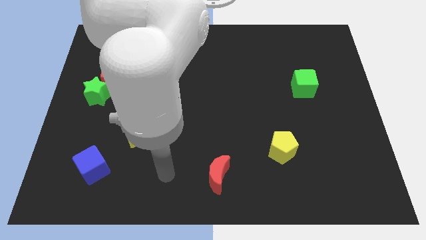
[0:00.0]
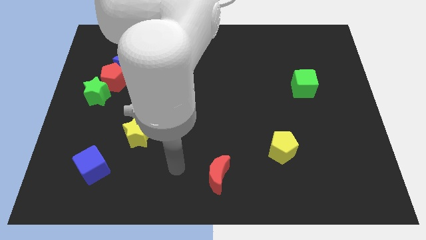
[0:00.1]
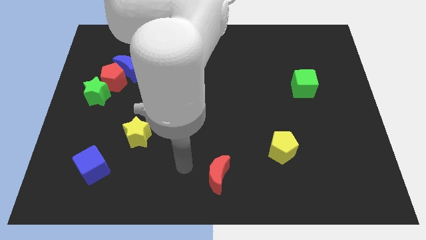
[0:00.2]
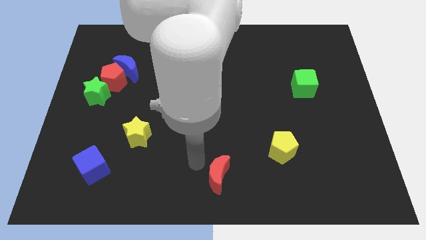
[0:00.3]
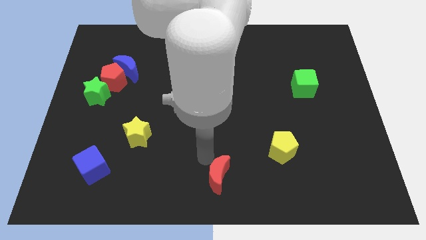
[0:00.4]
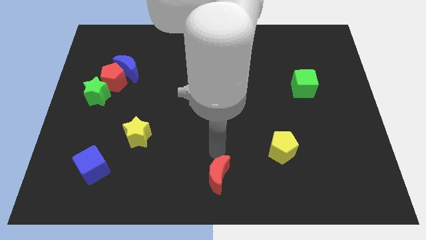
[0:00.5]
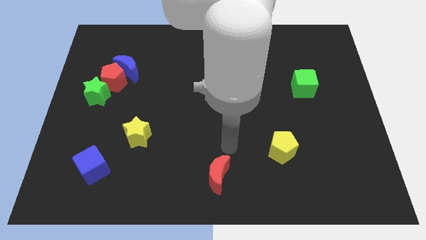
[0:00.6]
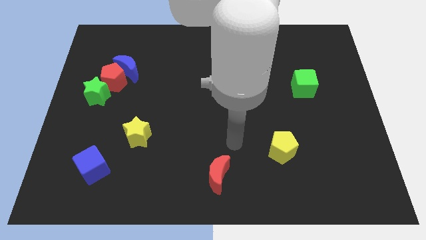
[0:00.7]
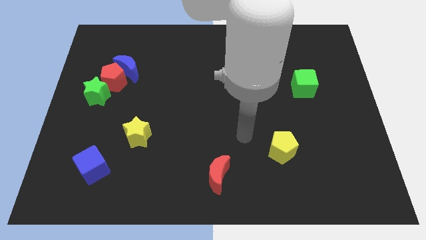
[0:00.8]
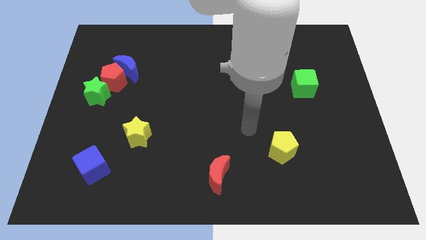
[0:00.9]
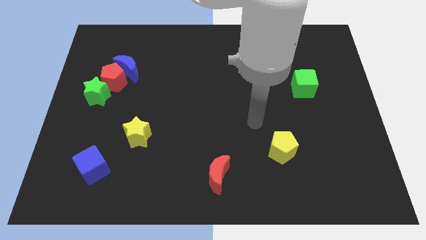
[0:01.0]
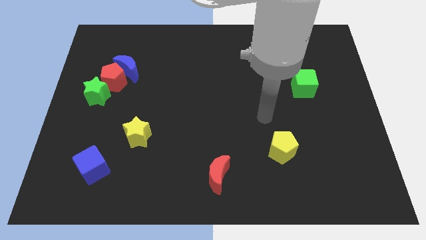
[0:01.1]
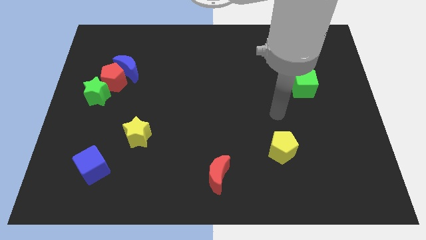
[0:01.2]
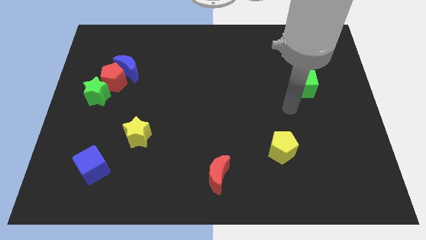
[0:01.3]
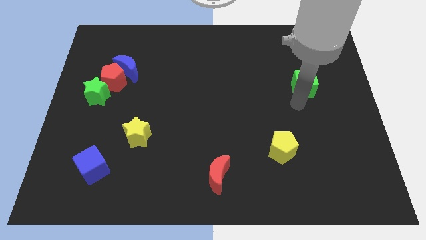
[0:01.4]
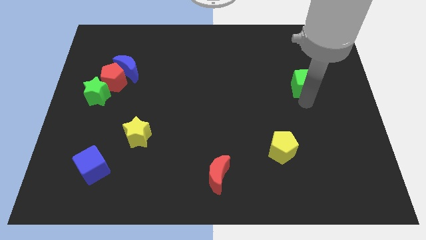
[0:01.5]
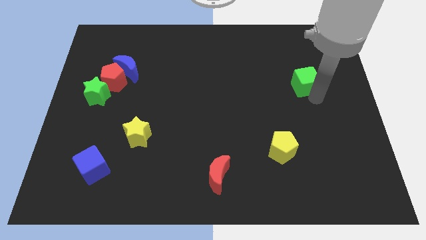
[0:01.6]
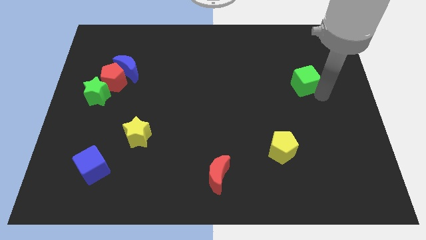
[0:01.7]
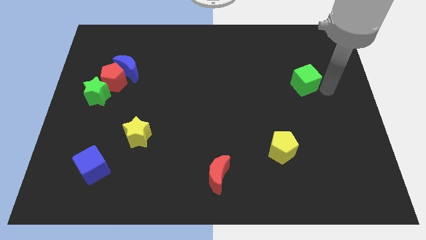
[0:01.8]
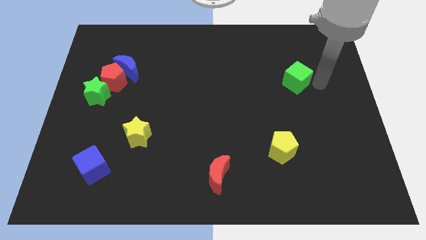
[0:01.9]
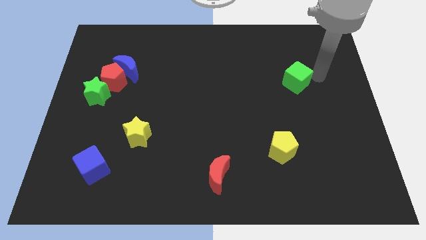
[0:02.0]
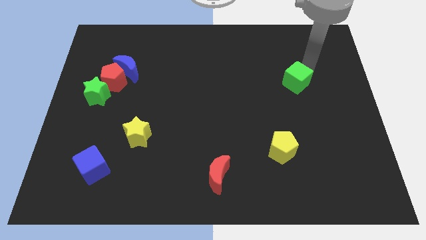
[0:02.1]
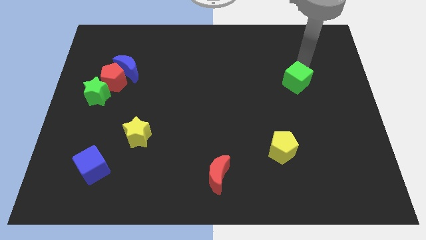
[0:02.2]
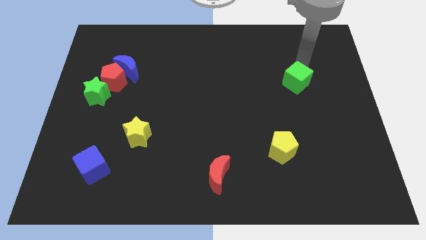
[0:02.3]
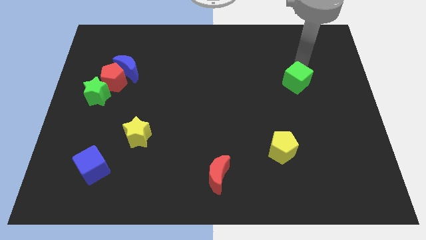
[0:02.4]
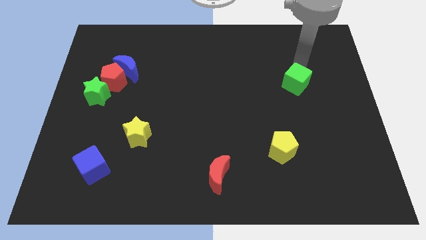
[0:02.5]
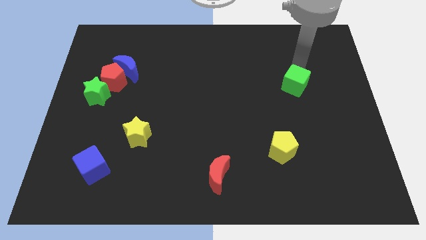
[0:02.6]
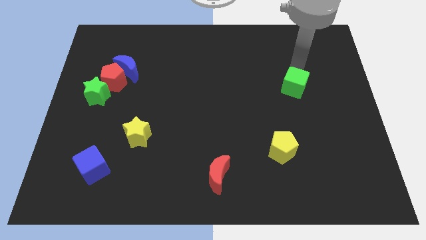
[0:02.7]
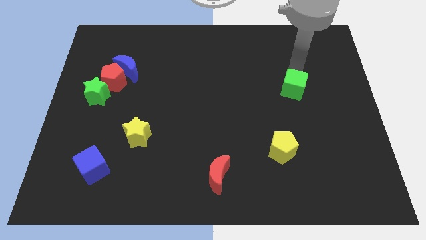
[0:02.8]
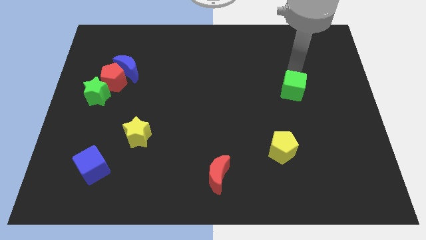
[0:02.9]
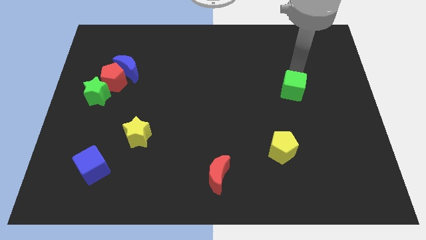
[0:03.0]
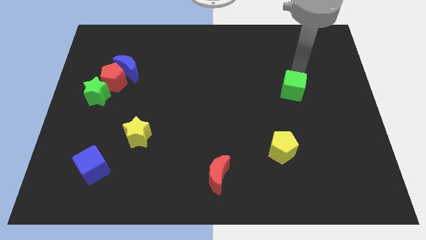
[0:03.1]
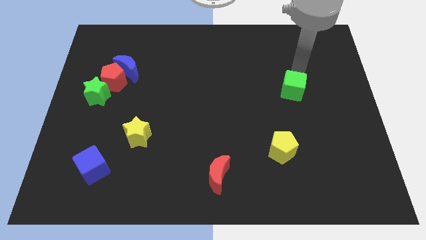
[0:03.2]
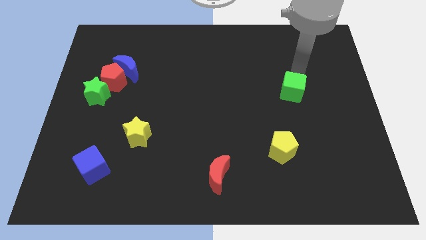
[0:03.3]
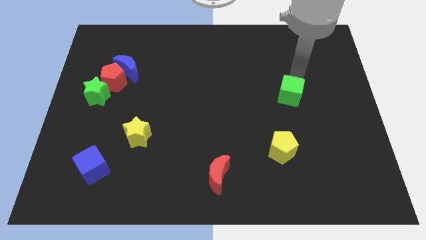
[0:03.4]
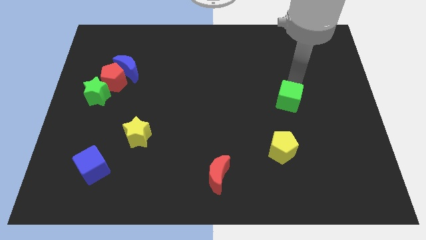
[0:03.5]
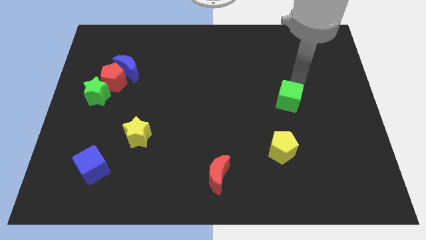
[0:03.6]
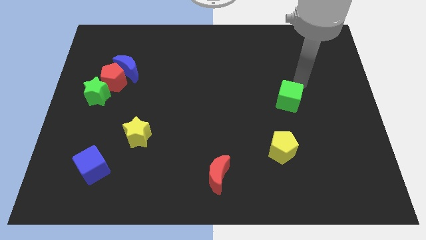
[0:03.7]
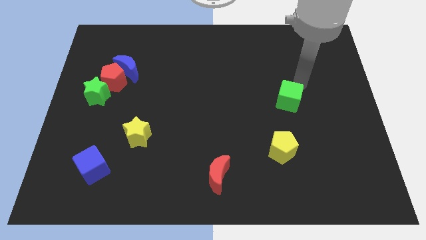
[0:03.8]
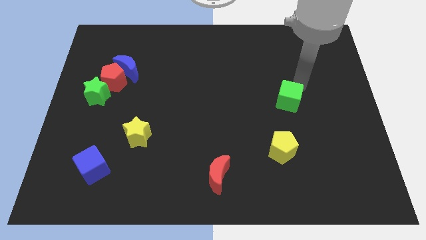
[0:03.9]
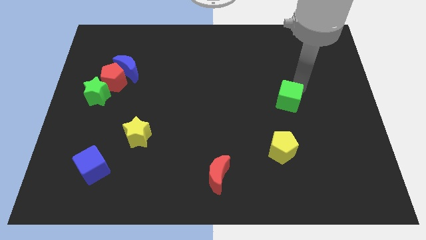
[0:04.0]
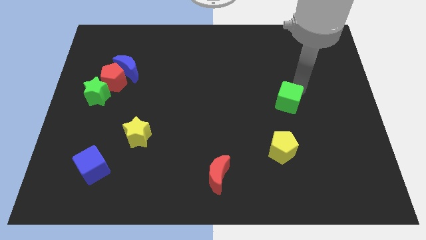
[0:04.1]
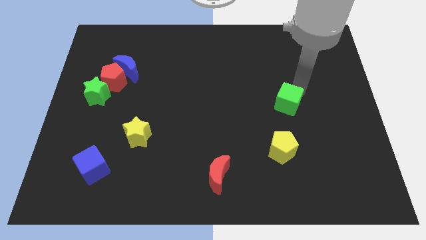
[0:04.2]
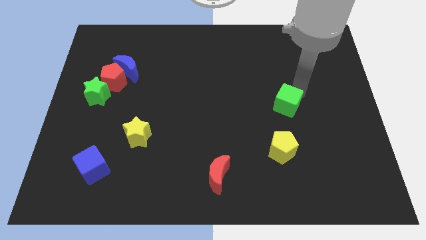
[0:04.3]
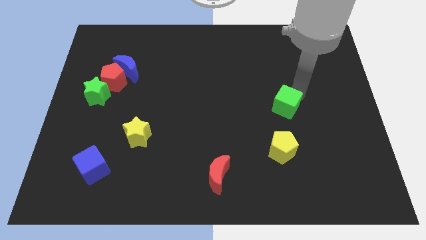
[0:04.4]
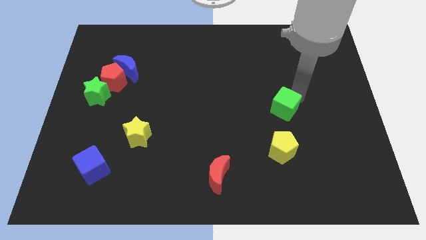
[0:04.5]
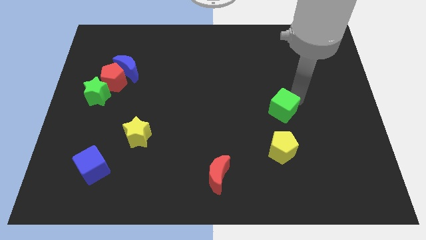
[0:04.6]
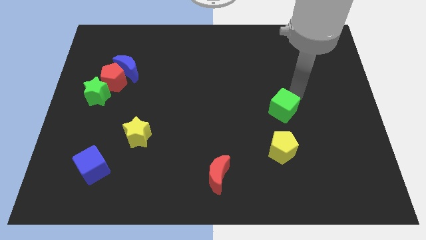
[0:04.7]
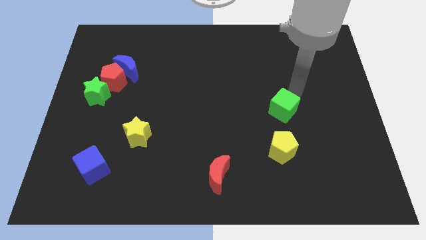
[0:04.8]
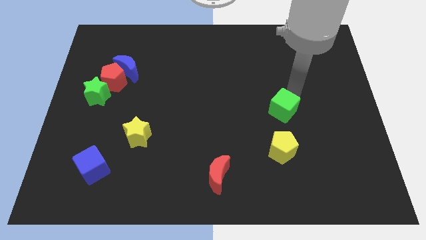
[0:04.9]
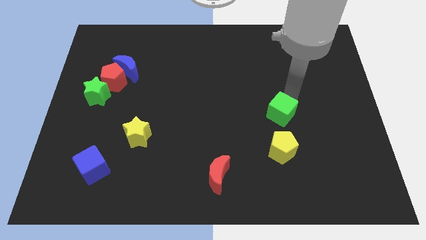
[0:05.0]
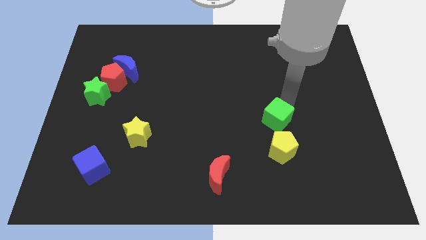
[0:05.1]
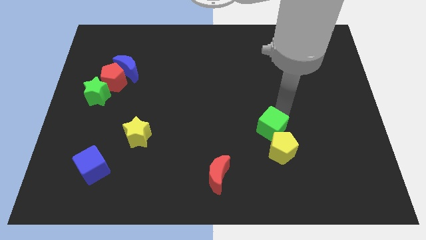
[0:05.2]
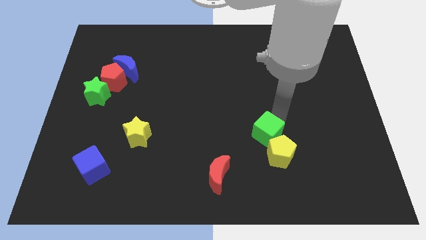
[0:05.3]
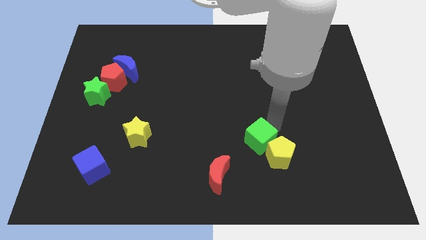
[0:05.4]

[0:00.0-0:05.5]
put the green cube to the top right of the red moon

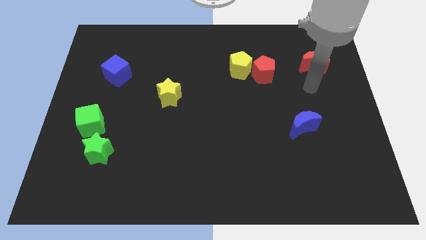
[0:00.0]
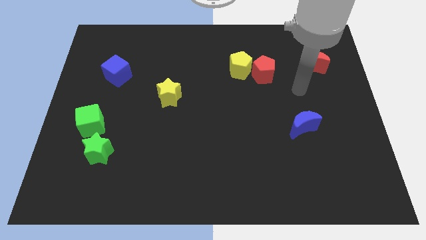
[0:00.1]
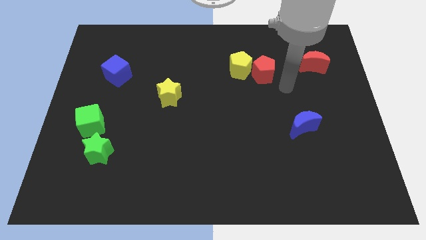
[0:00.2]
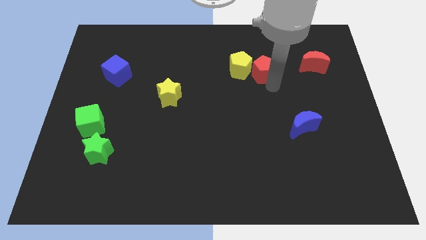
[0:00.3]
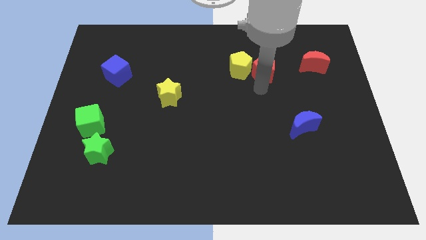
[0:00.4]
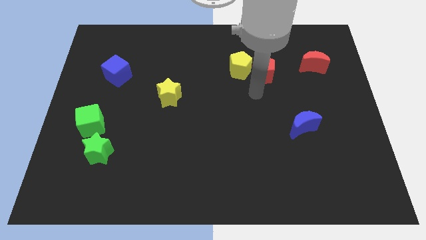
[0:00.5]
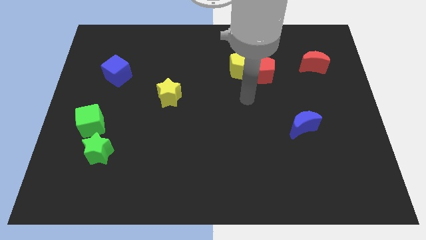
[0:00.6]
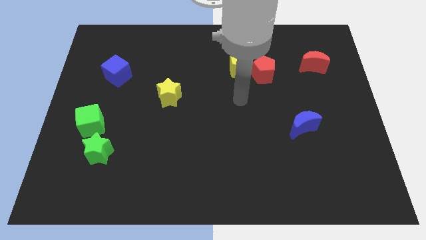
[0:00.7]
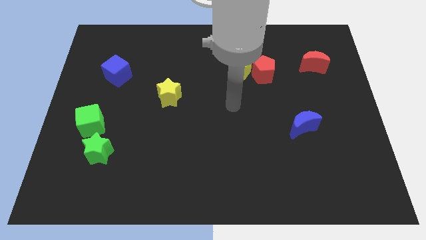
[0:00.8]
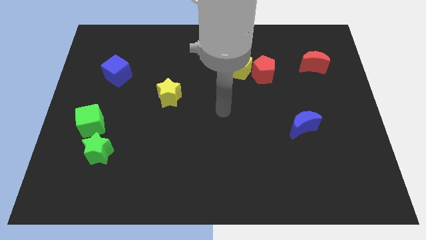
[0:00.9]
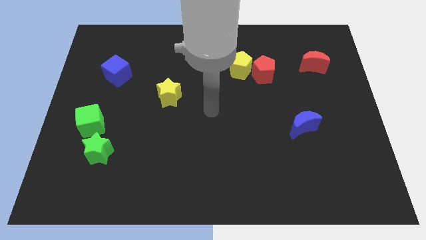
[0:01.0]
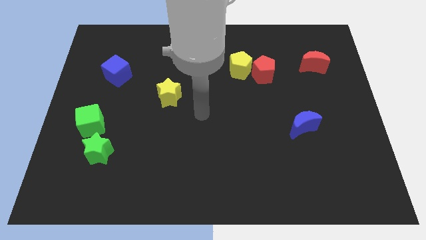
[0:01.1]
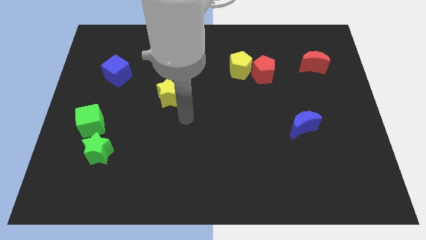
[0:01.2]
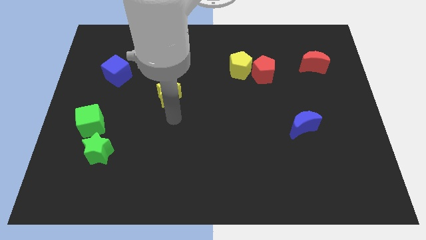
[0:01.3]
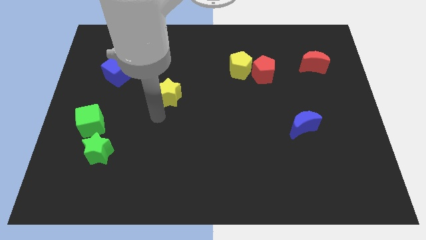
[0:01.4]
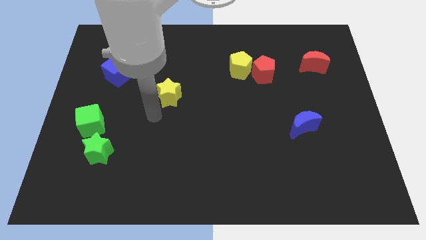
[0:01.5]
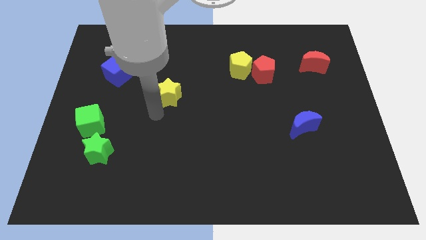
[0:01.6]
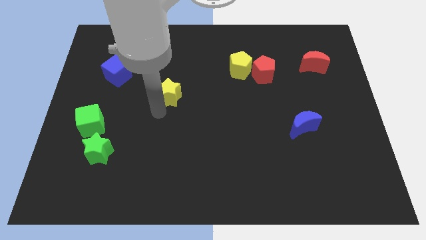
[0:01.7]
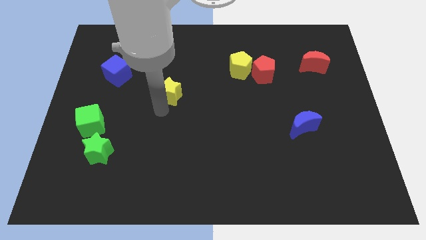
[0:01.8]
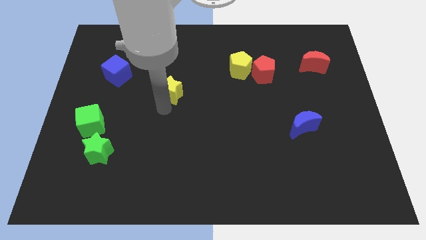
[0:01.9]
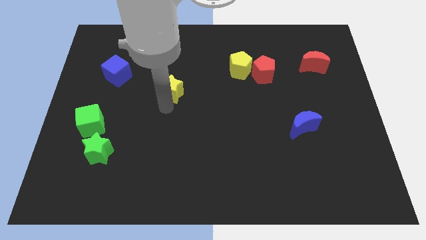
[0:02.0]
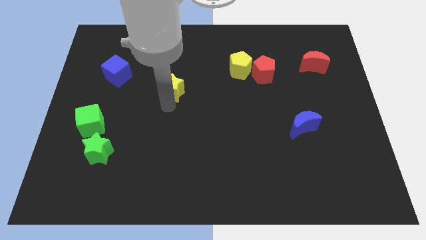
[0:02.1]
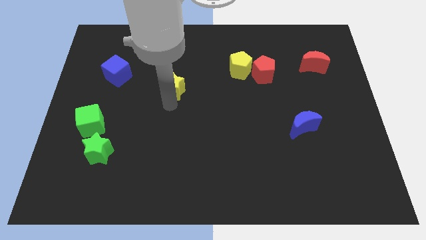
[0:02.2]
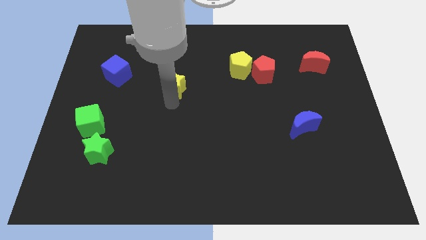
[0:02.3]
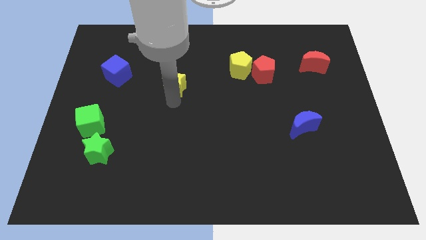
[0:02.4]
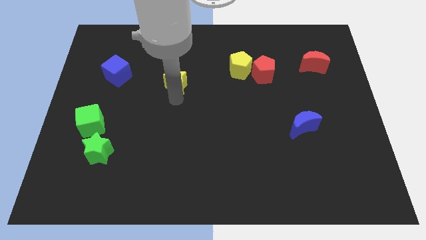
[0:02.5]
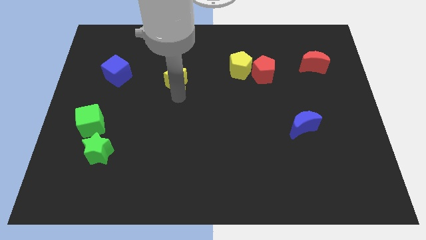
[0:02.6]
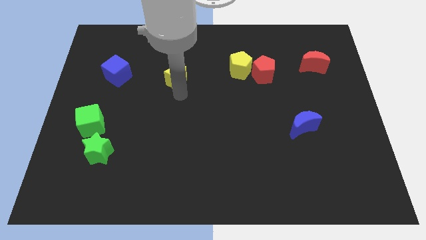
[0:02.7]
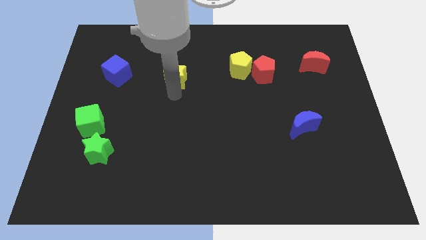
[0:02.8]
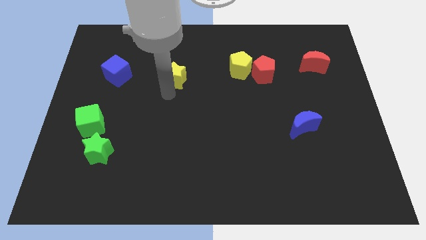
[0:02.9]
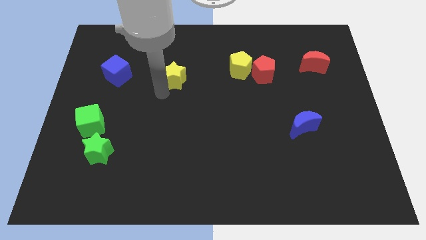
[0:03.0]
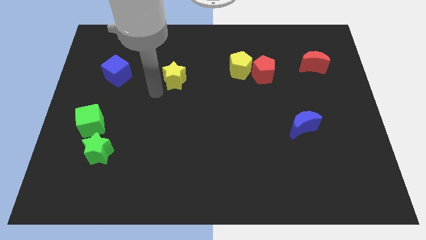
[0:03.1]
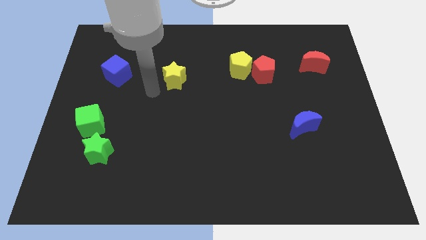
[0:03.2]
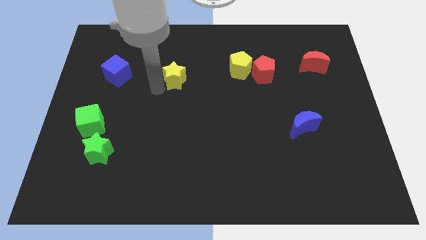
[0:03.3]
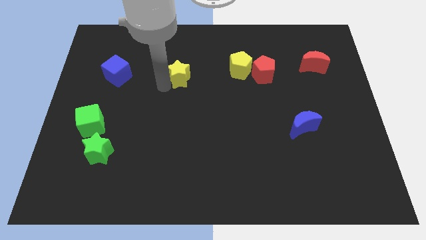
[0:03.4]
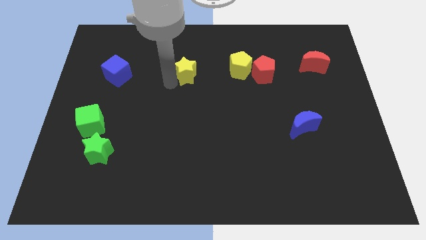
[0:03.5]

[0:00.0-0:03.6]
move the yellow star left of the yellow pentagon
